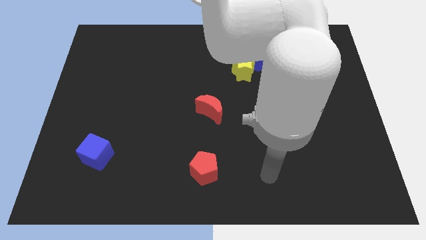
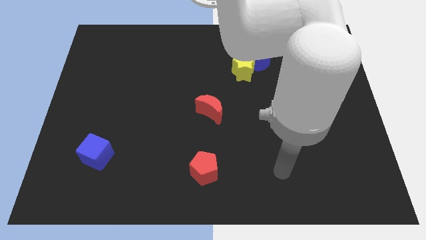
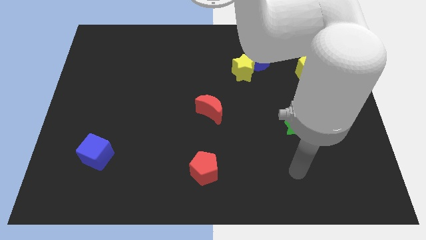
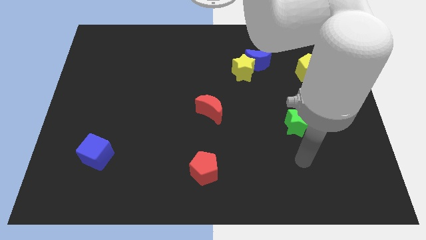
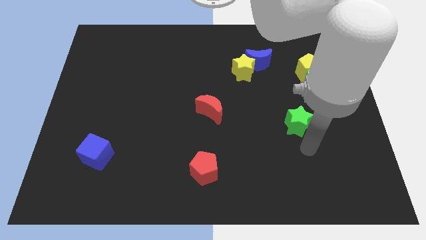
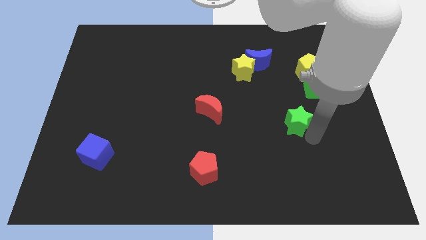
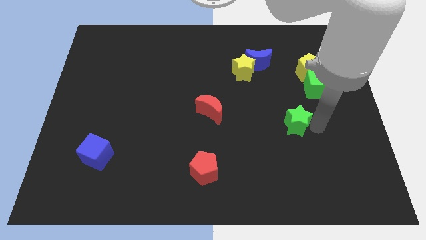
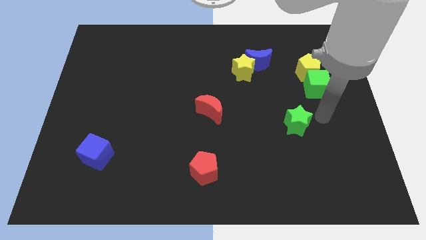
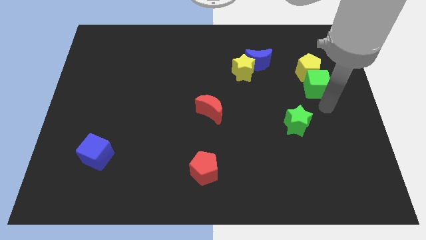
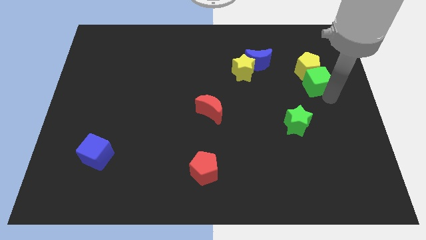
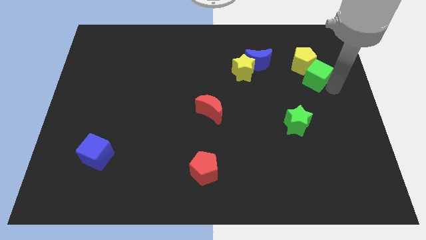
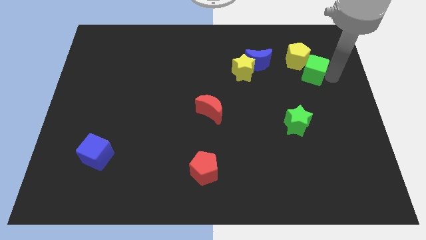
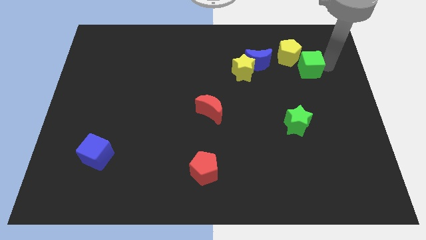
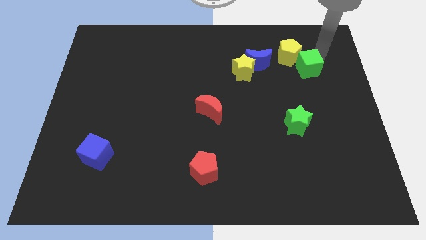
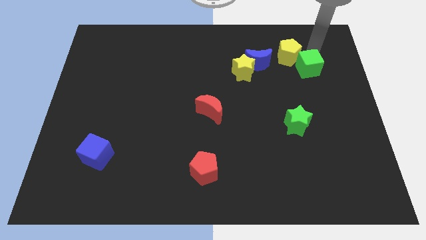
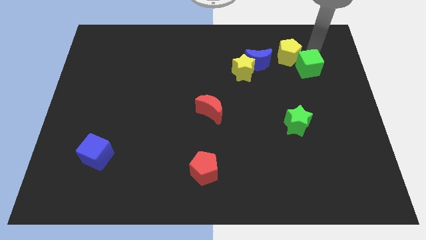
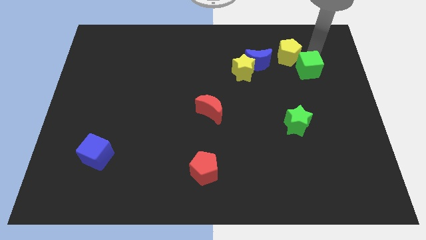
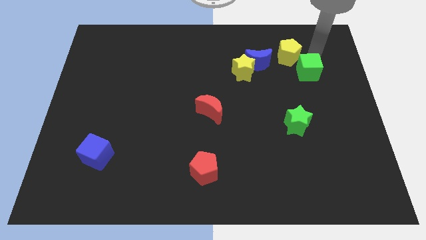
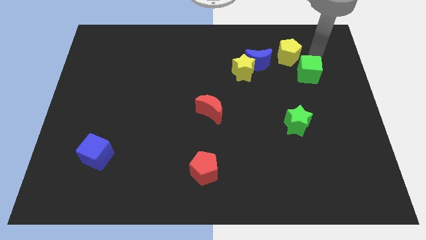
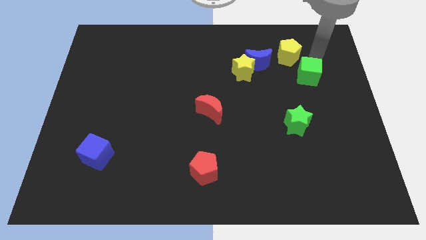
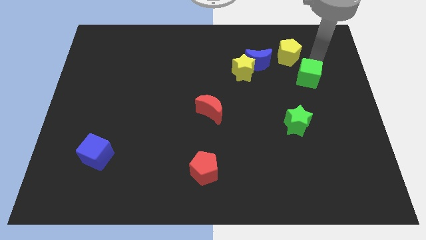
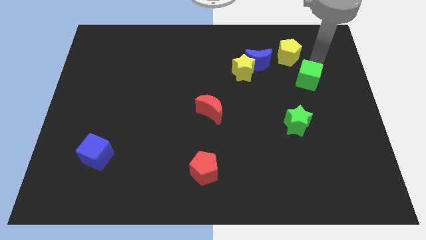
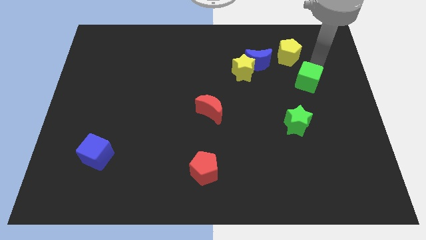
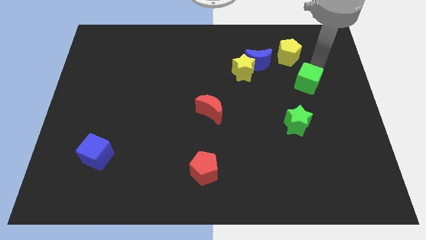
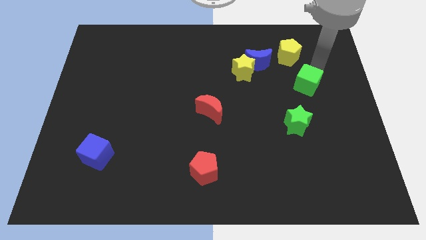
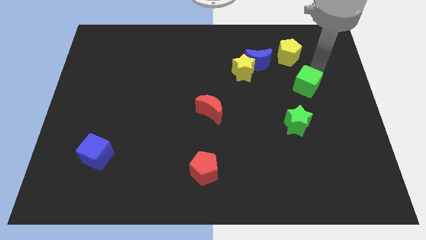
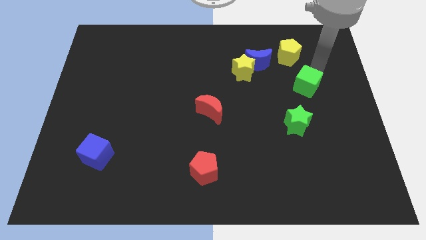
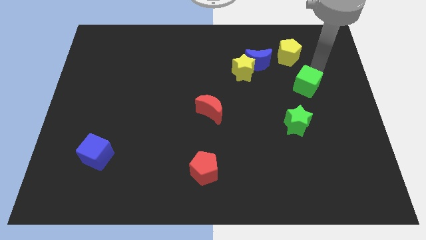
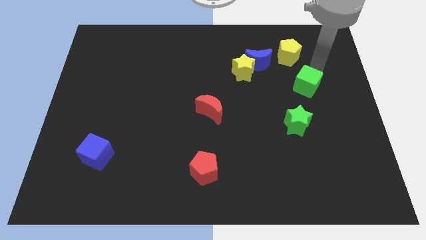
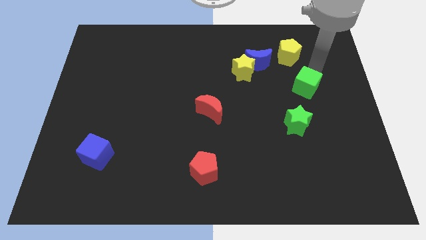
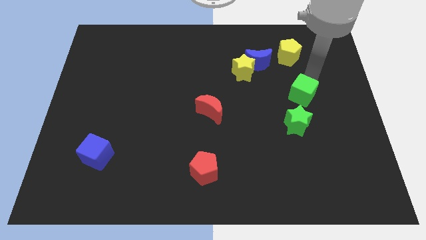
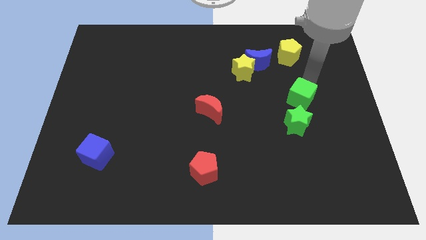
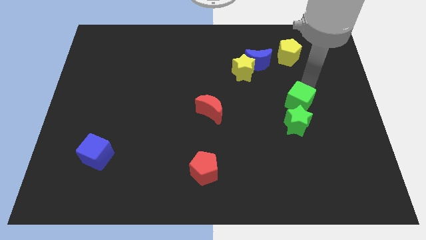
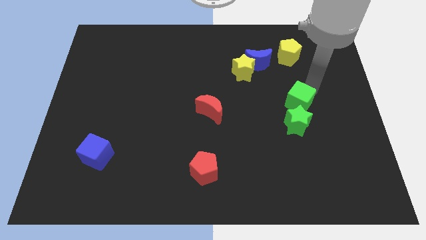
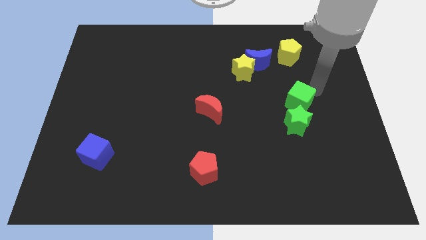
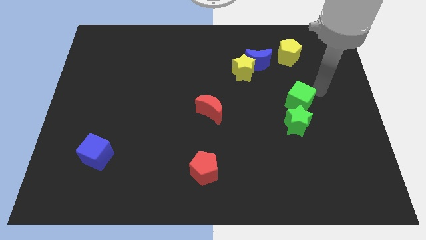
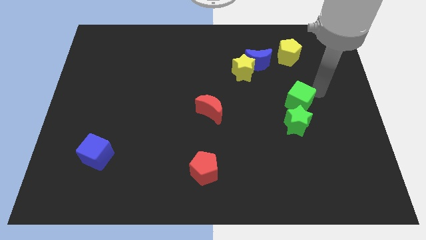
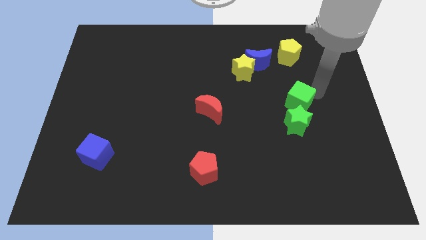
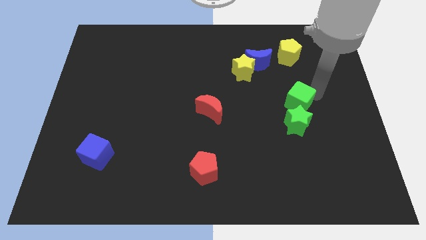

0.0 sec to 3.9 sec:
slightly slide the green cube down and then left

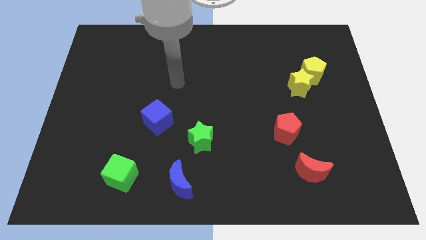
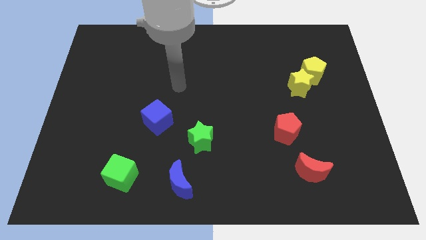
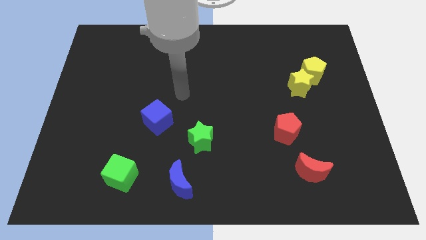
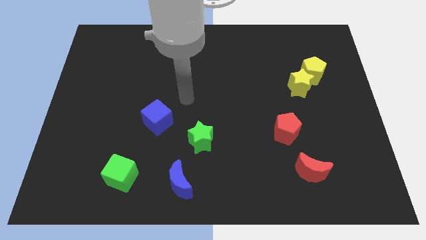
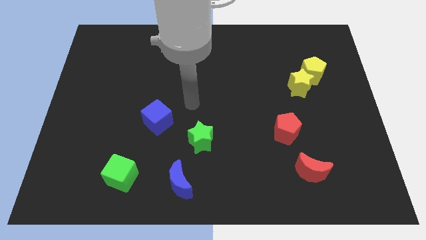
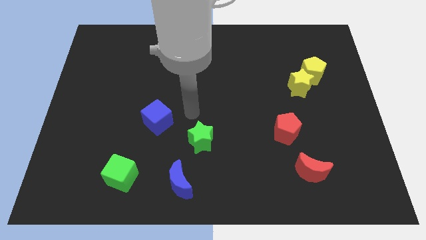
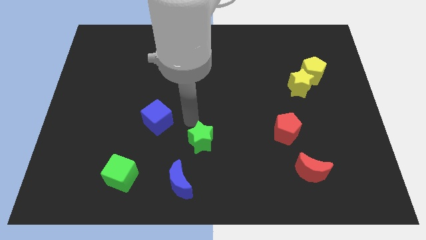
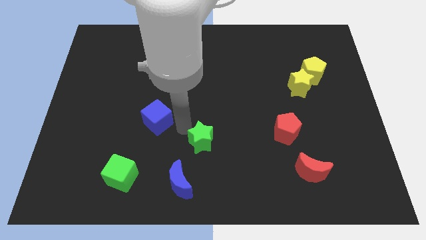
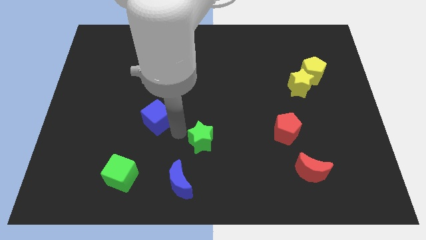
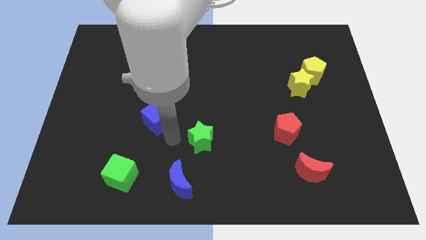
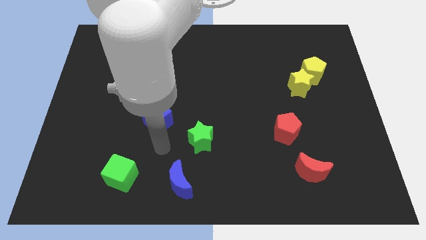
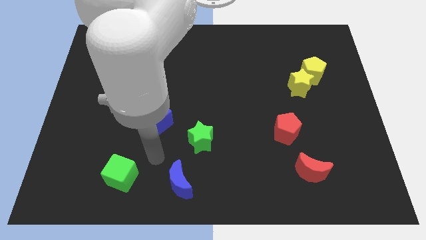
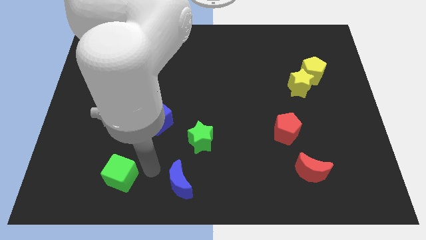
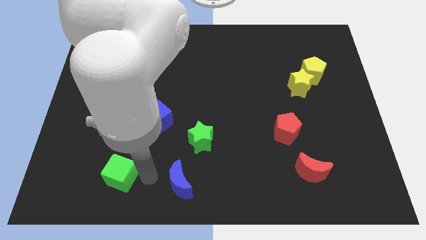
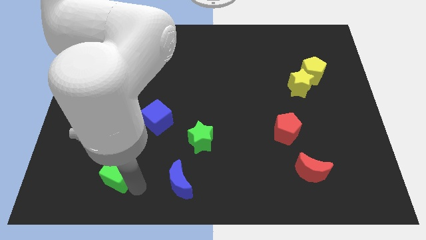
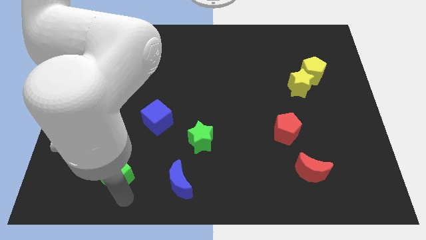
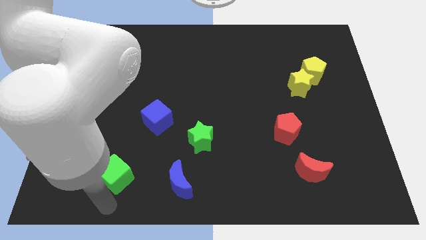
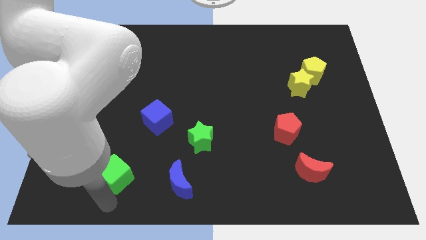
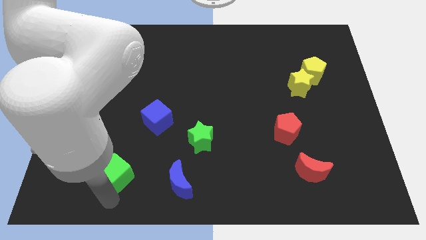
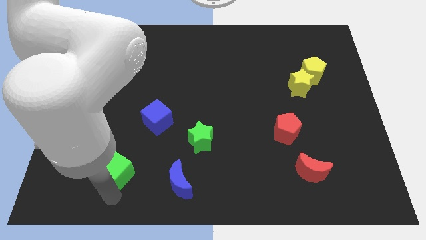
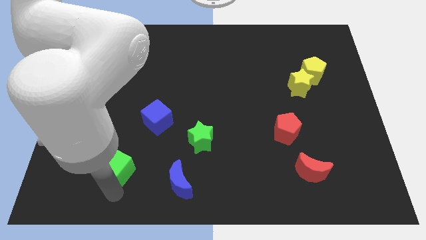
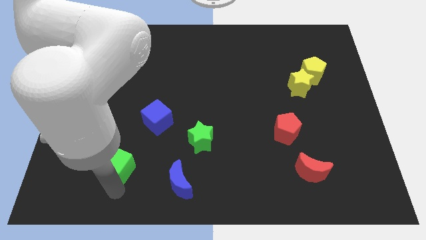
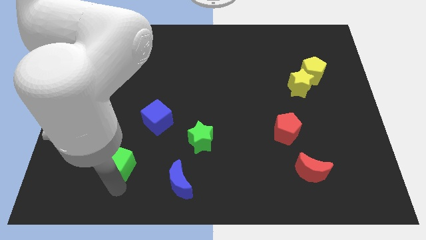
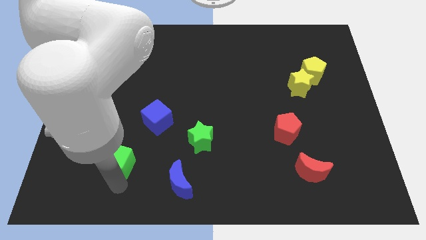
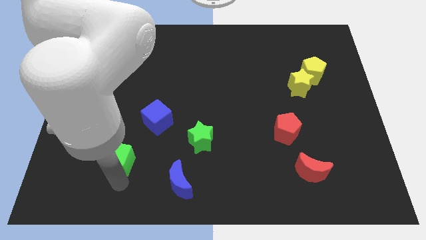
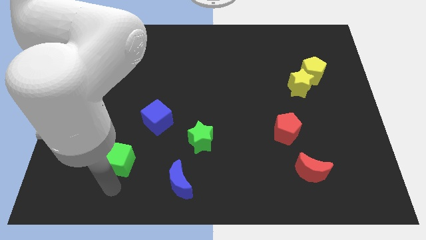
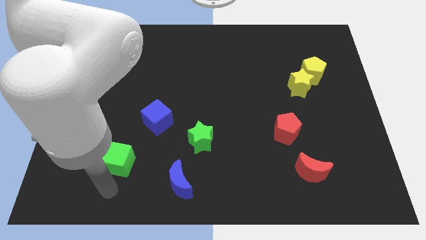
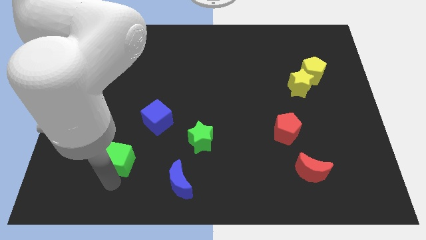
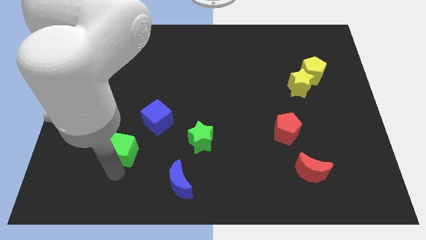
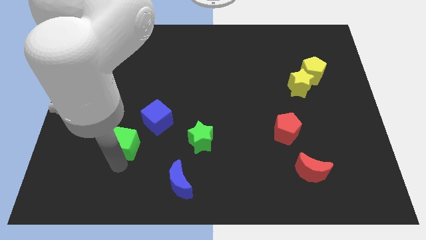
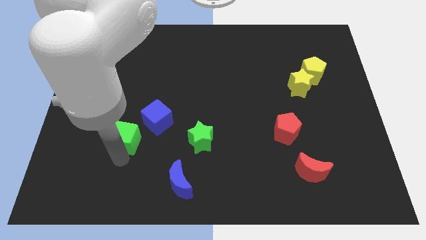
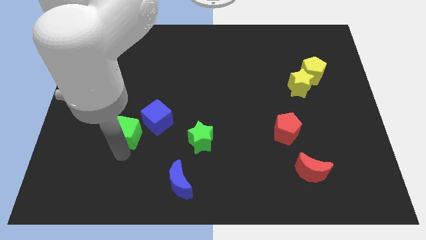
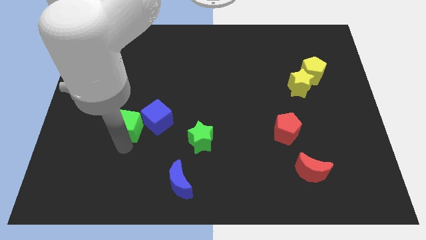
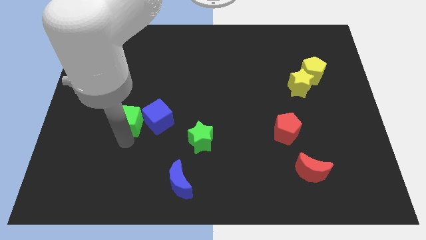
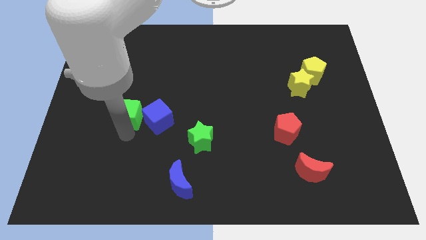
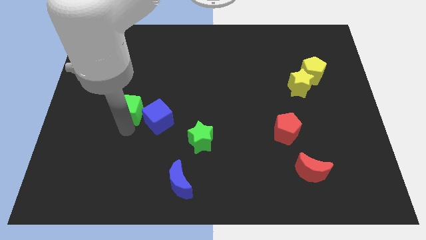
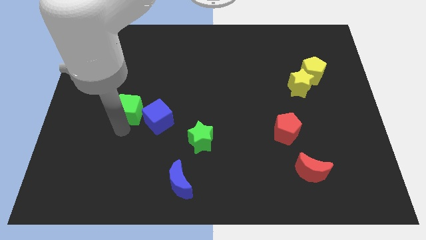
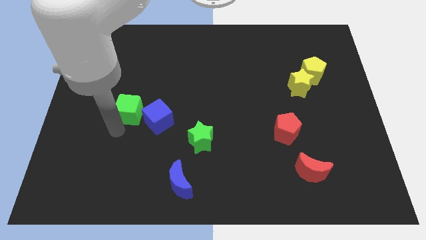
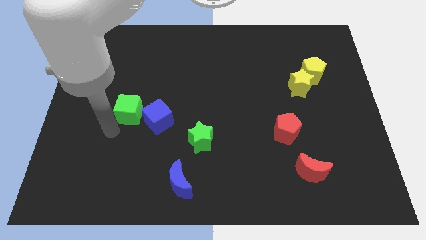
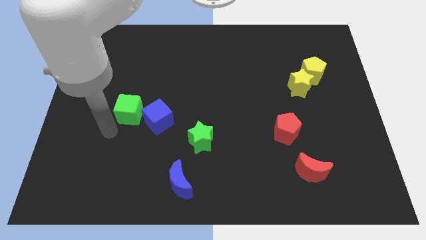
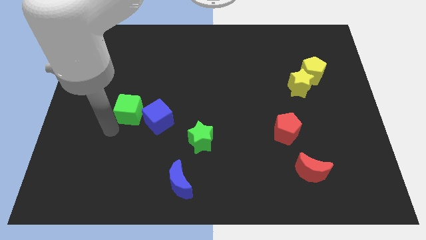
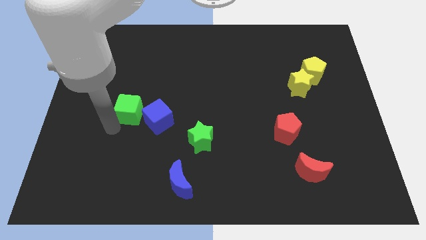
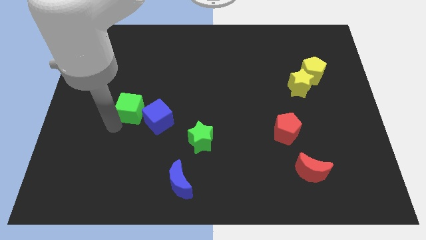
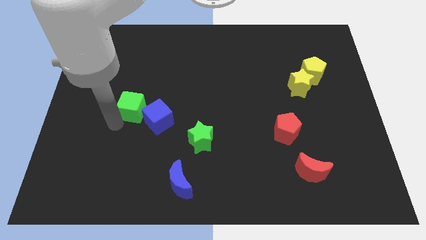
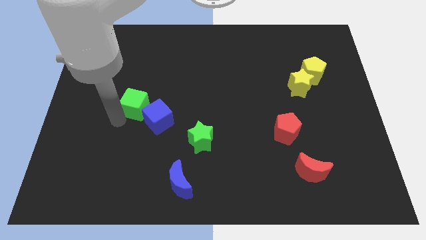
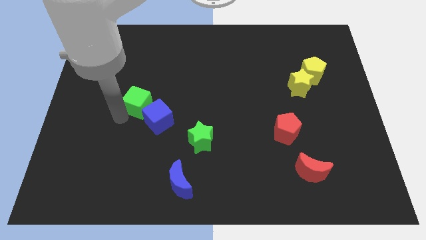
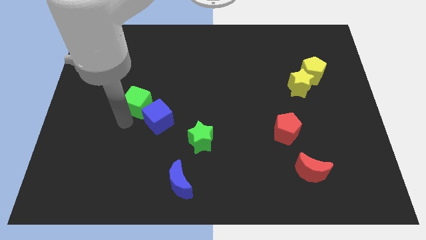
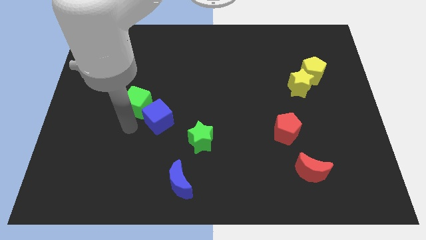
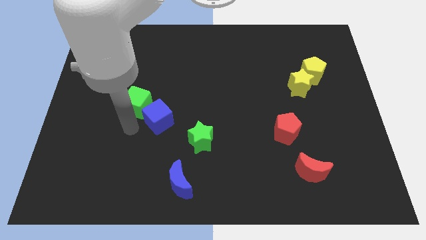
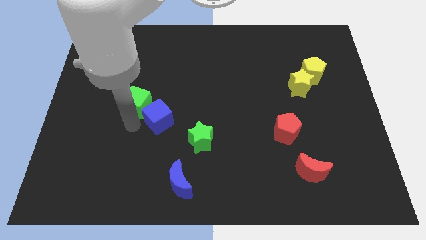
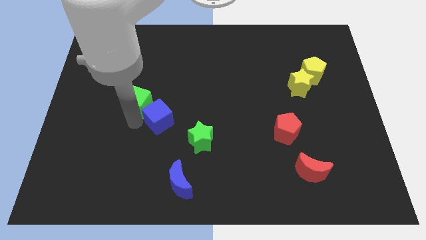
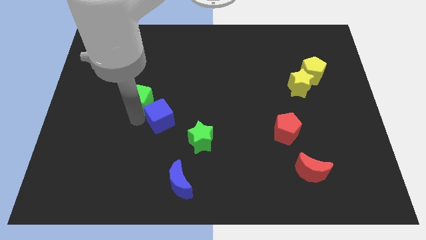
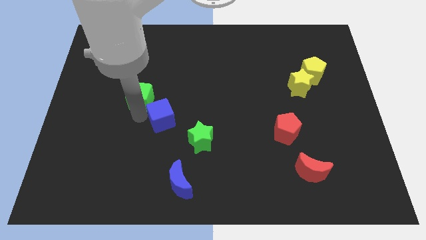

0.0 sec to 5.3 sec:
push the green cube upwards
